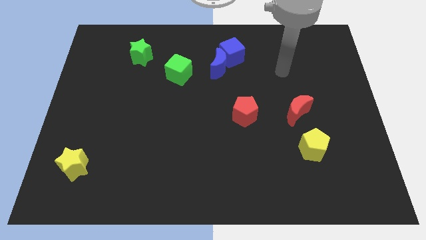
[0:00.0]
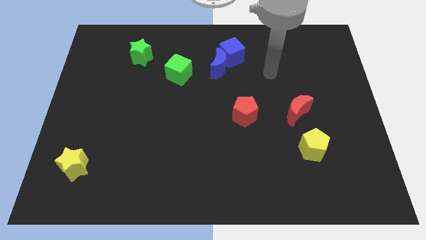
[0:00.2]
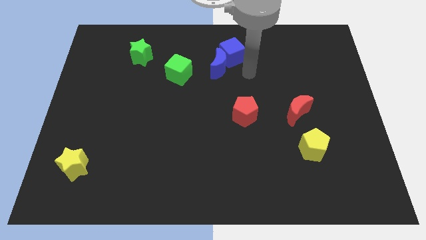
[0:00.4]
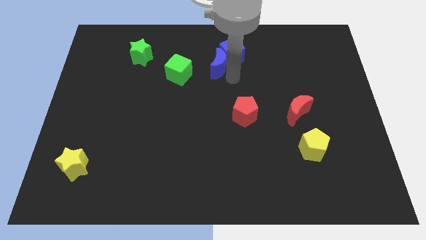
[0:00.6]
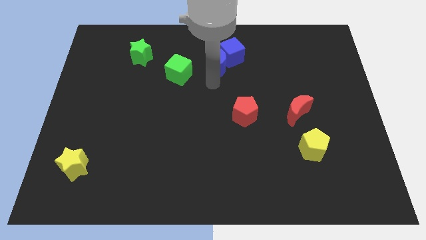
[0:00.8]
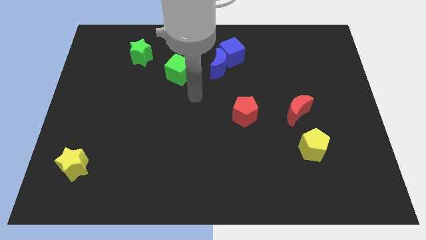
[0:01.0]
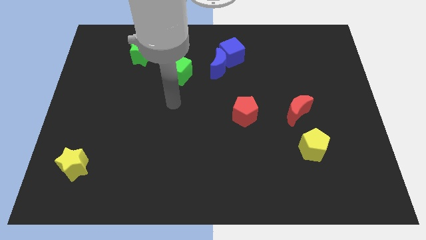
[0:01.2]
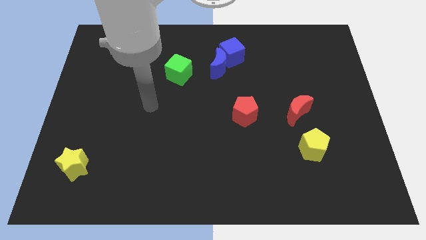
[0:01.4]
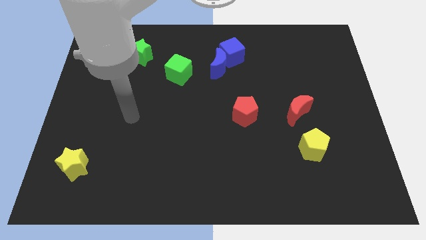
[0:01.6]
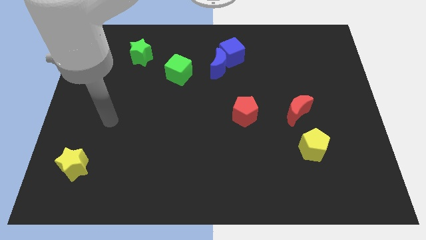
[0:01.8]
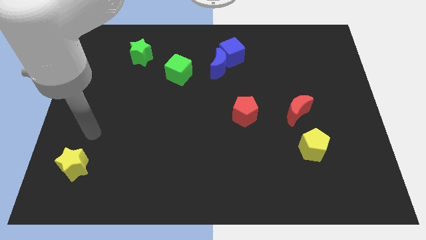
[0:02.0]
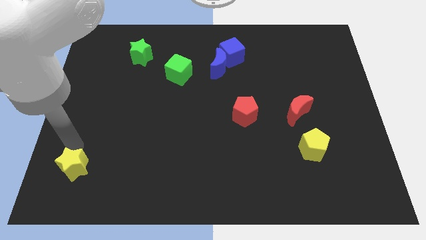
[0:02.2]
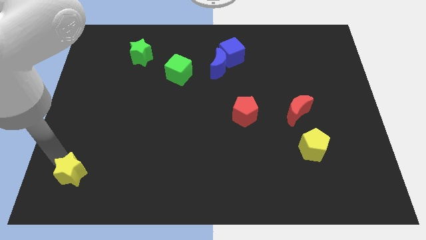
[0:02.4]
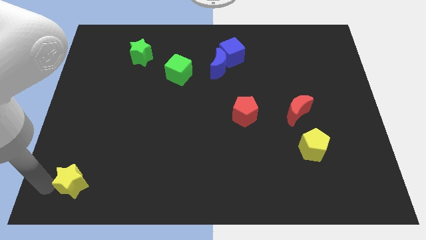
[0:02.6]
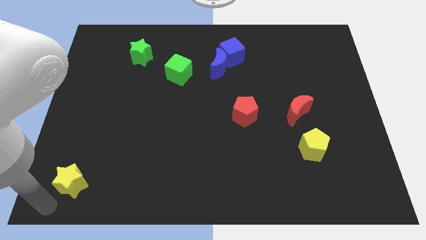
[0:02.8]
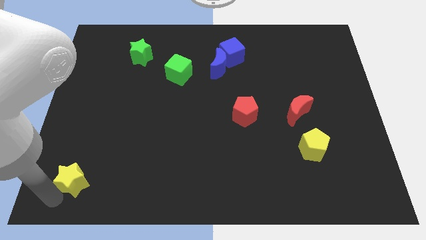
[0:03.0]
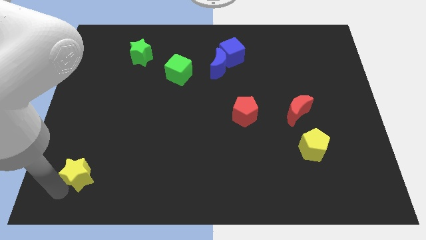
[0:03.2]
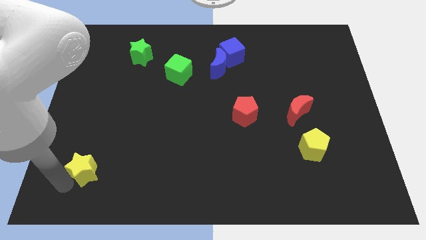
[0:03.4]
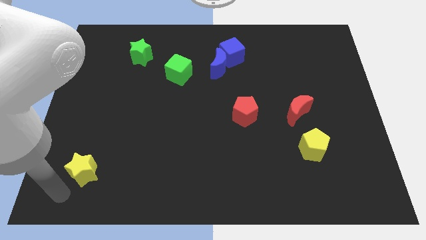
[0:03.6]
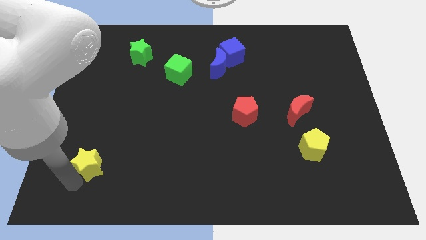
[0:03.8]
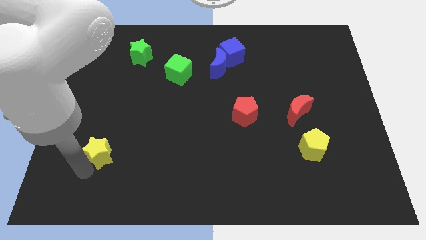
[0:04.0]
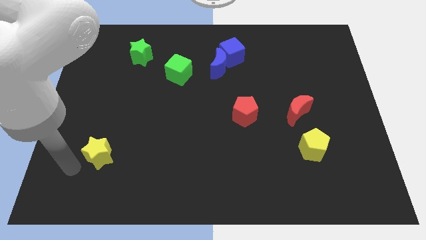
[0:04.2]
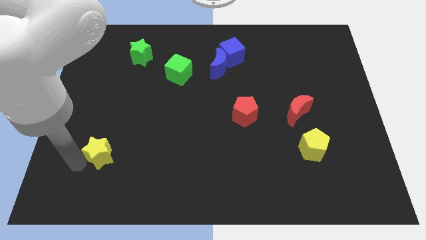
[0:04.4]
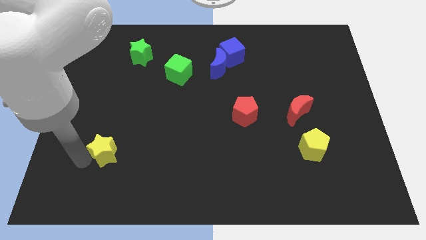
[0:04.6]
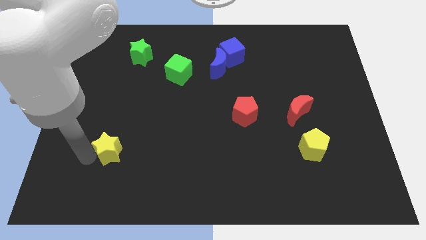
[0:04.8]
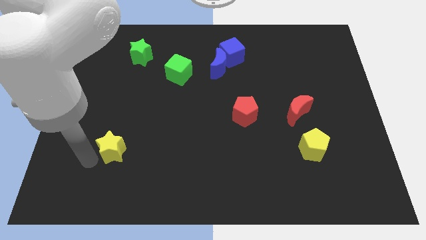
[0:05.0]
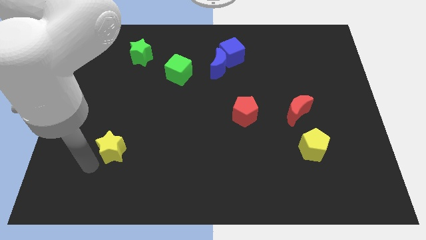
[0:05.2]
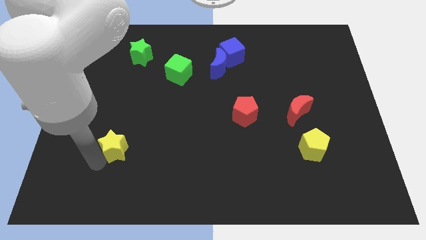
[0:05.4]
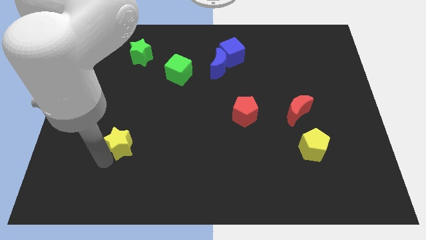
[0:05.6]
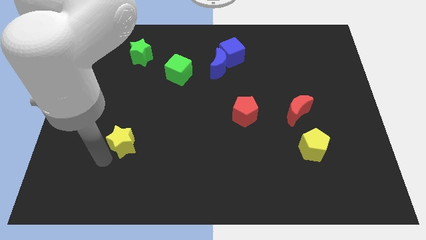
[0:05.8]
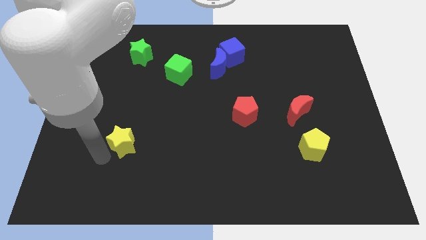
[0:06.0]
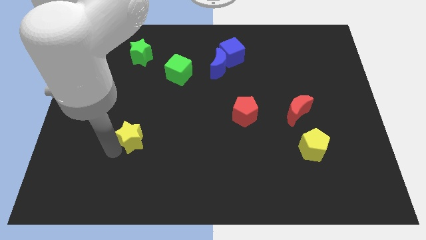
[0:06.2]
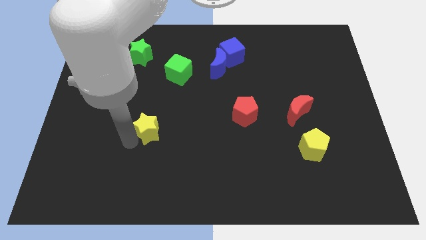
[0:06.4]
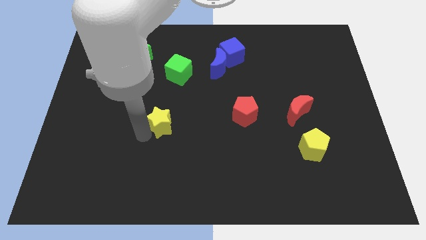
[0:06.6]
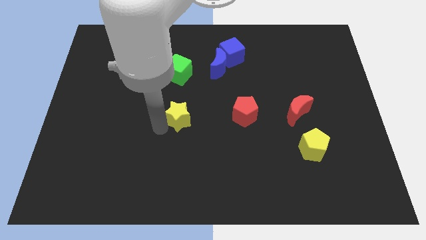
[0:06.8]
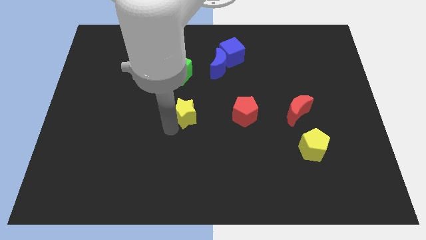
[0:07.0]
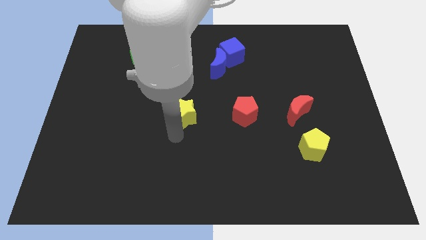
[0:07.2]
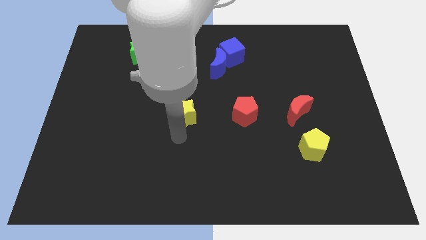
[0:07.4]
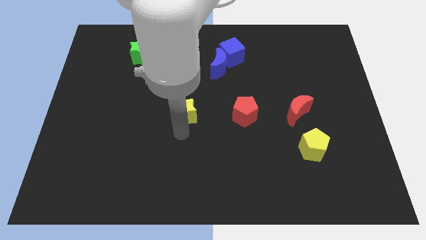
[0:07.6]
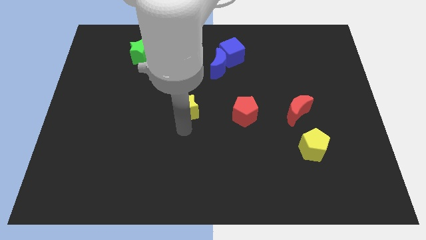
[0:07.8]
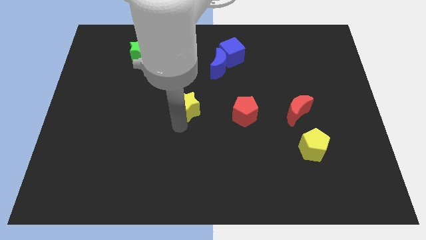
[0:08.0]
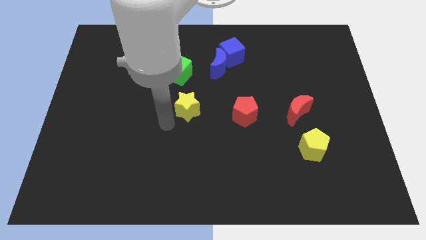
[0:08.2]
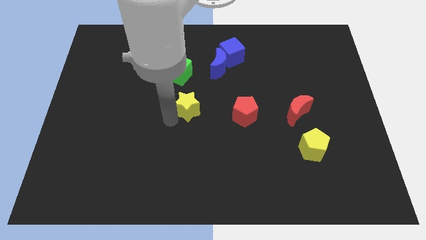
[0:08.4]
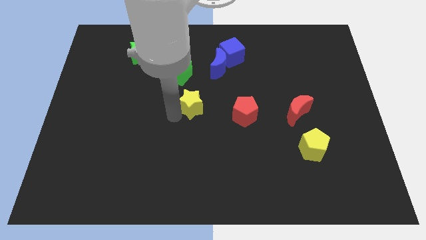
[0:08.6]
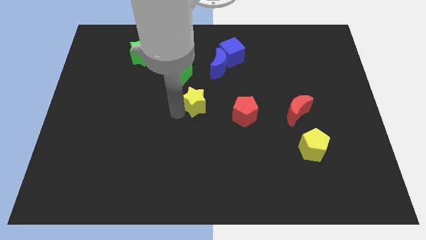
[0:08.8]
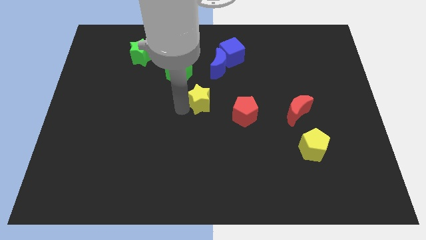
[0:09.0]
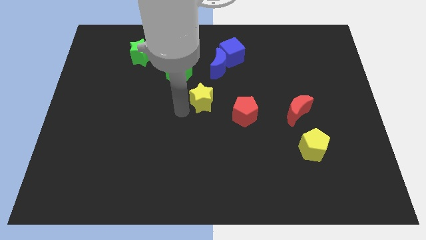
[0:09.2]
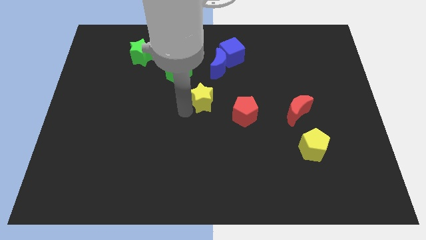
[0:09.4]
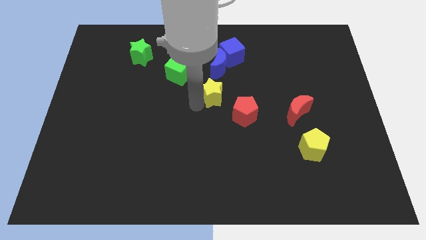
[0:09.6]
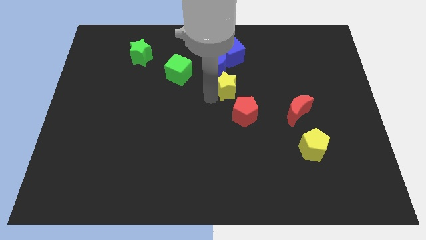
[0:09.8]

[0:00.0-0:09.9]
put the yellow star to the bottom right of the blue moon

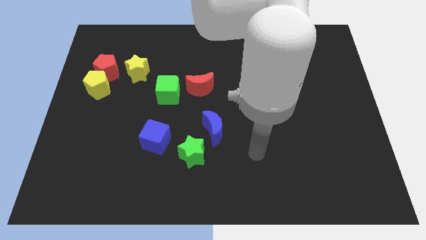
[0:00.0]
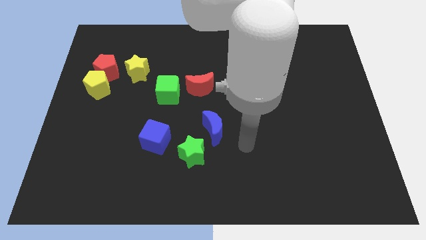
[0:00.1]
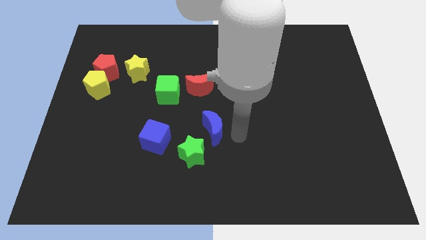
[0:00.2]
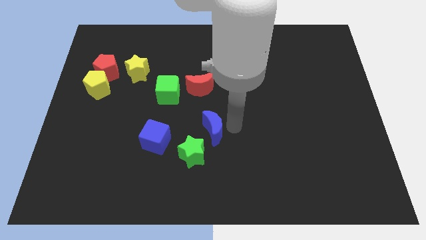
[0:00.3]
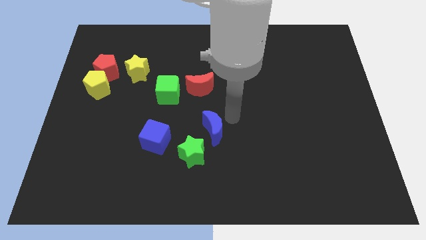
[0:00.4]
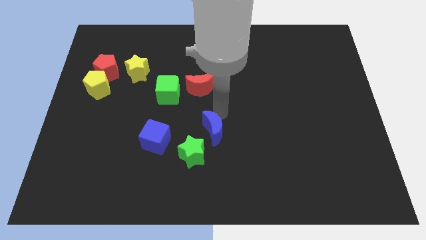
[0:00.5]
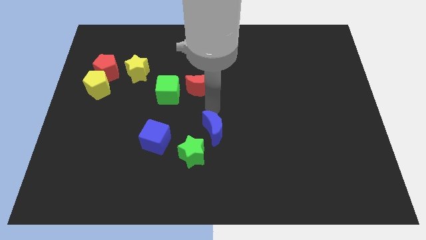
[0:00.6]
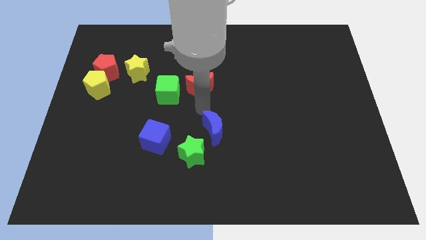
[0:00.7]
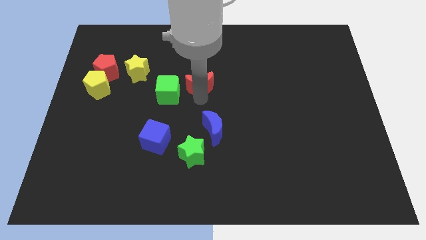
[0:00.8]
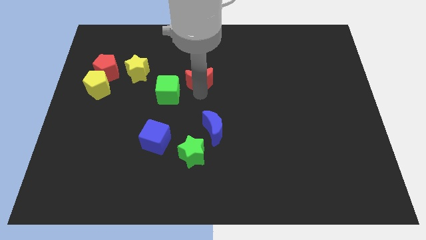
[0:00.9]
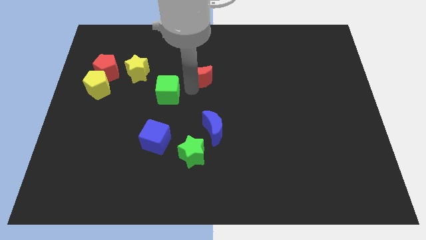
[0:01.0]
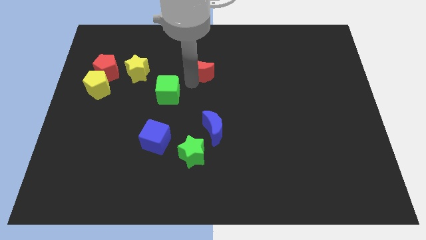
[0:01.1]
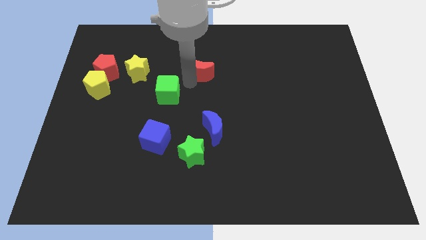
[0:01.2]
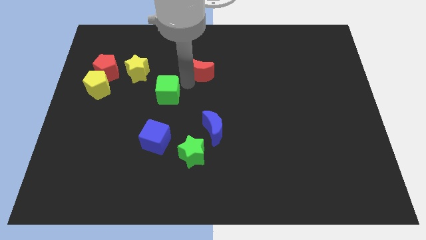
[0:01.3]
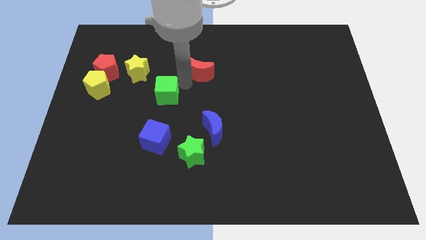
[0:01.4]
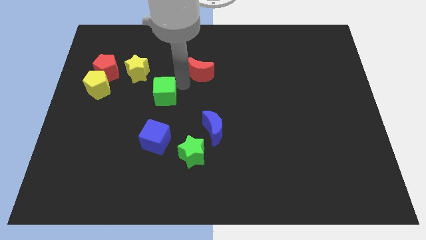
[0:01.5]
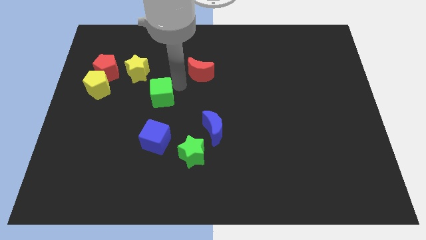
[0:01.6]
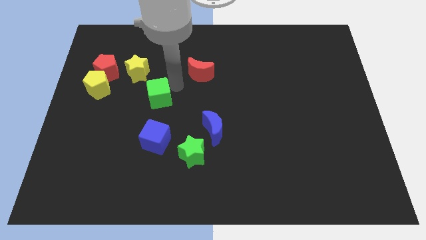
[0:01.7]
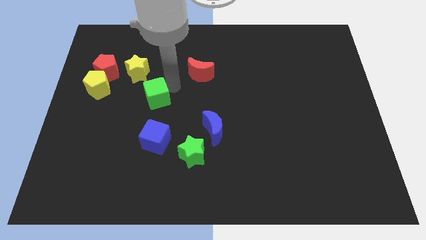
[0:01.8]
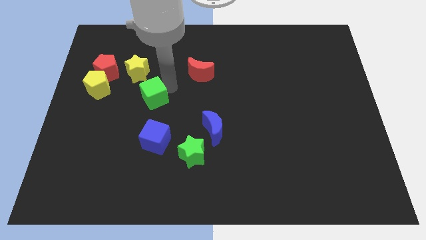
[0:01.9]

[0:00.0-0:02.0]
move the green cube to the bottom side of the yellow star
